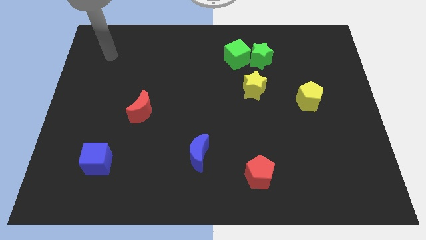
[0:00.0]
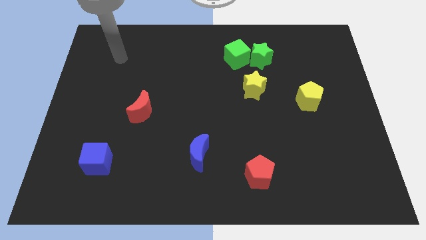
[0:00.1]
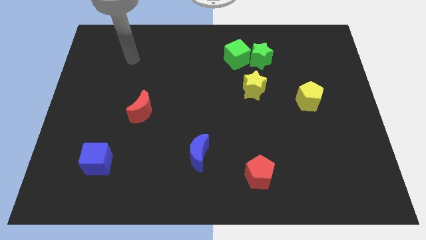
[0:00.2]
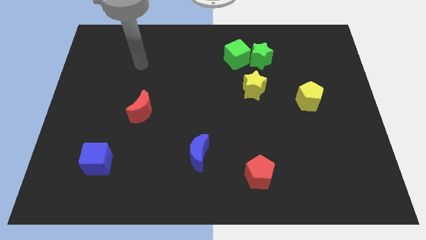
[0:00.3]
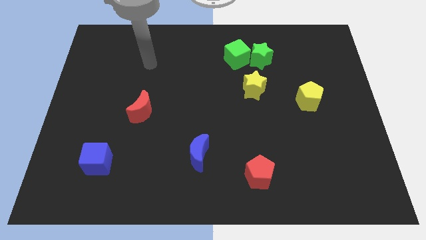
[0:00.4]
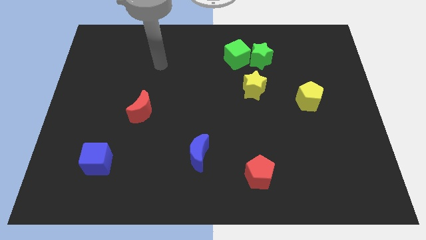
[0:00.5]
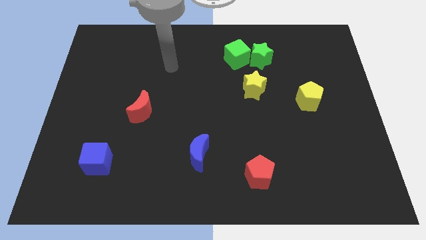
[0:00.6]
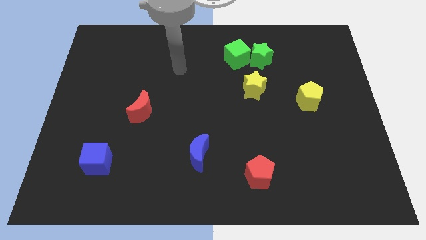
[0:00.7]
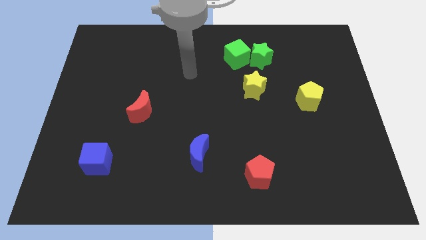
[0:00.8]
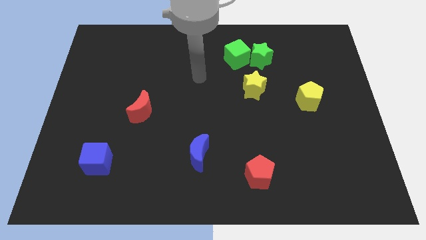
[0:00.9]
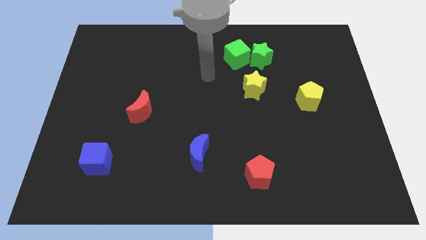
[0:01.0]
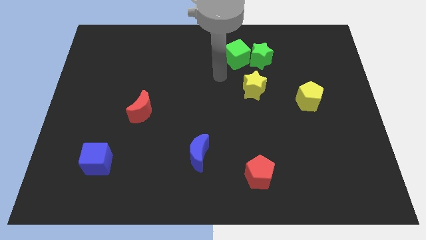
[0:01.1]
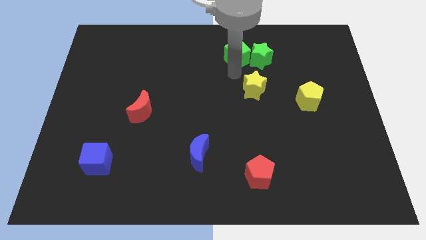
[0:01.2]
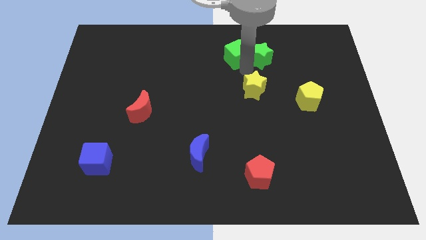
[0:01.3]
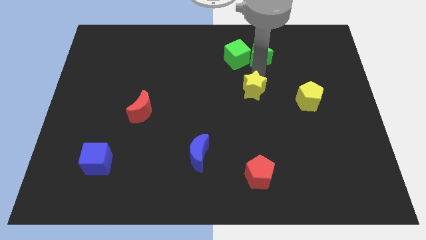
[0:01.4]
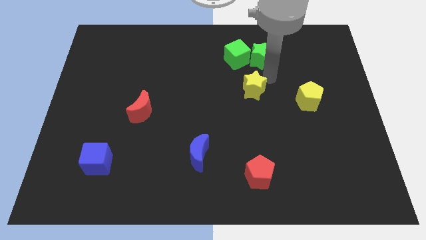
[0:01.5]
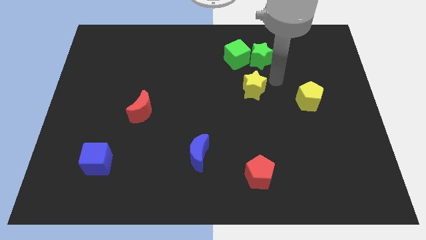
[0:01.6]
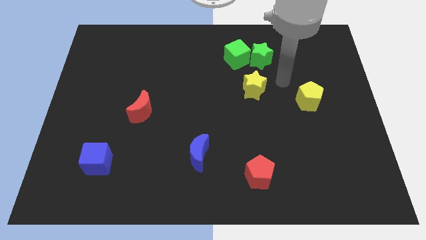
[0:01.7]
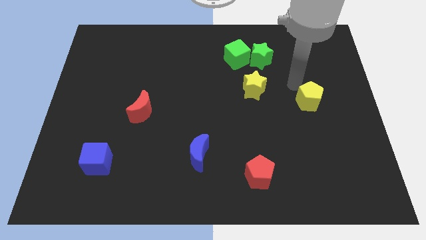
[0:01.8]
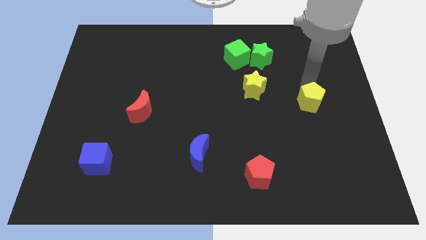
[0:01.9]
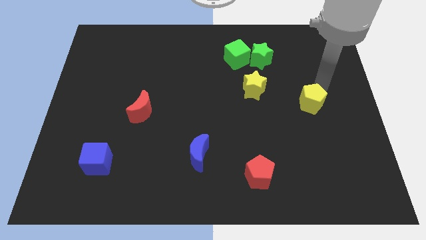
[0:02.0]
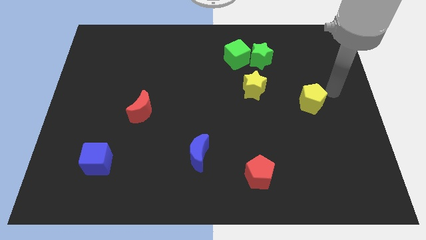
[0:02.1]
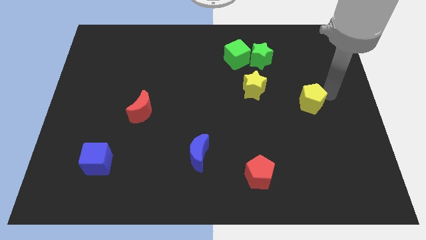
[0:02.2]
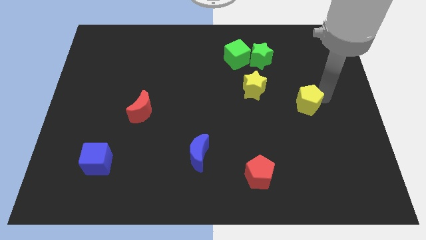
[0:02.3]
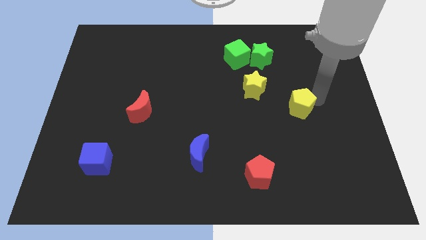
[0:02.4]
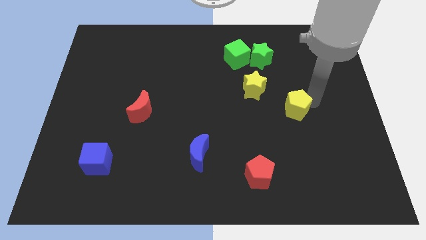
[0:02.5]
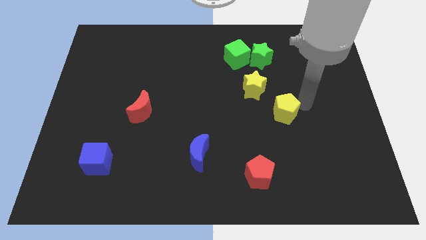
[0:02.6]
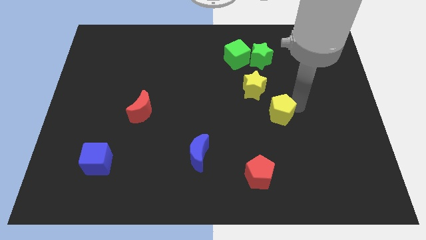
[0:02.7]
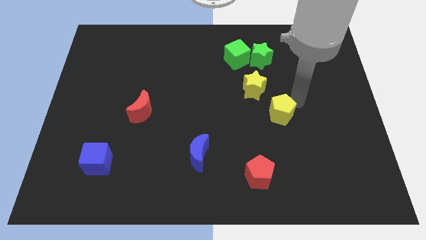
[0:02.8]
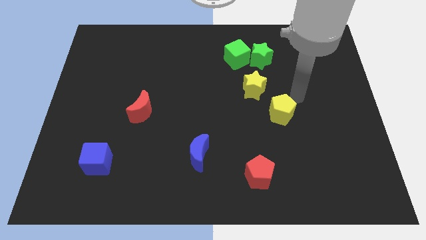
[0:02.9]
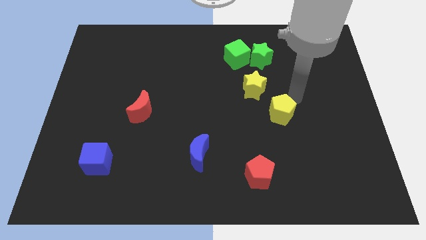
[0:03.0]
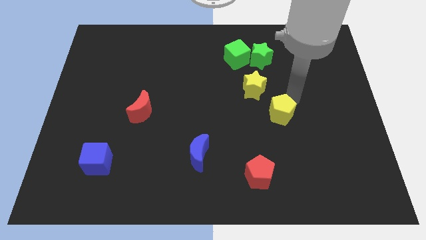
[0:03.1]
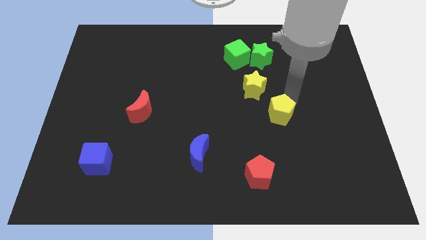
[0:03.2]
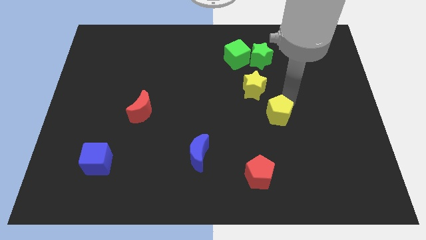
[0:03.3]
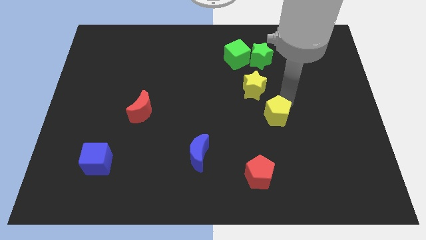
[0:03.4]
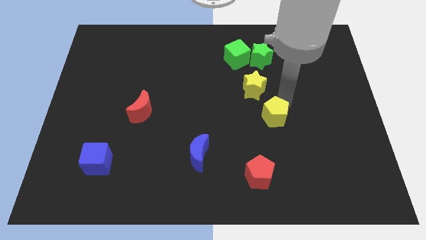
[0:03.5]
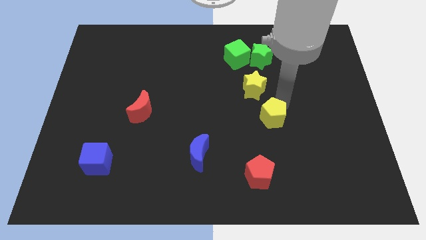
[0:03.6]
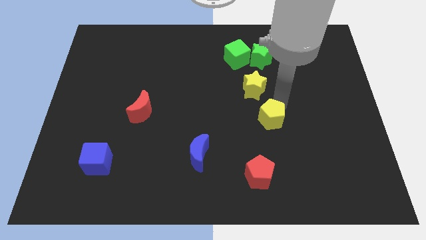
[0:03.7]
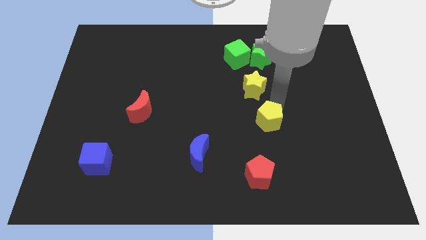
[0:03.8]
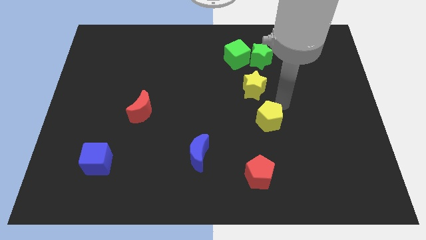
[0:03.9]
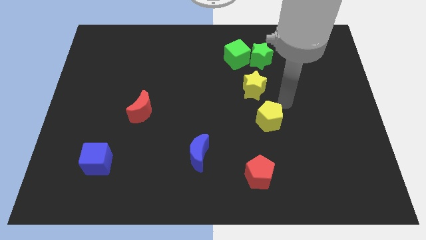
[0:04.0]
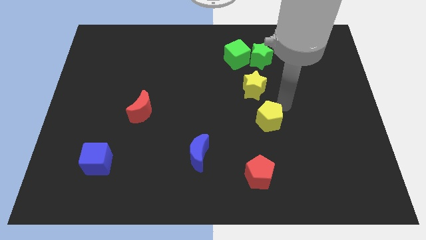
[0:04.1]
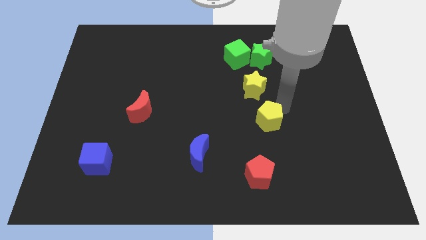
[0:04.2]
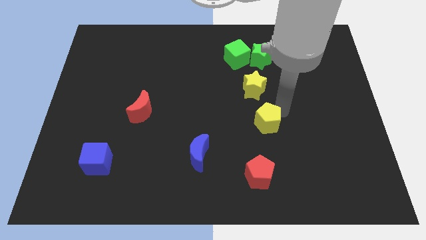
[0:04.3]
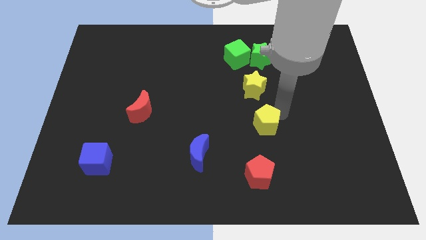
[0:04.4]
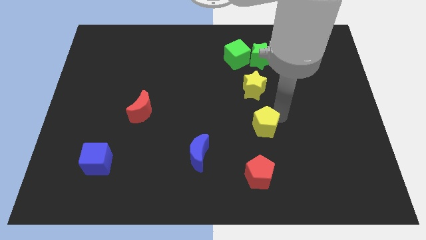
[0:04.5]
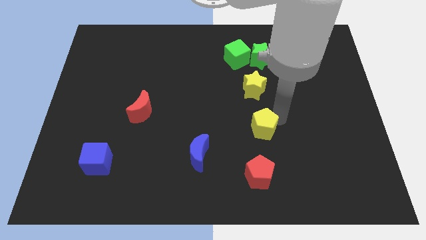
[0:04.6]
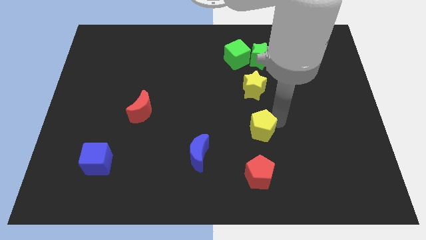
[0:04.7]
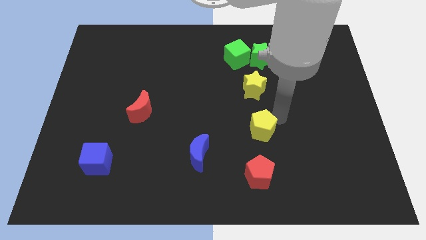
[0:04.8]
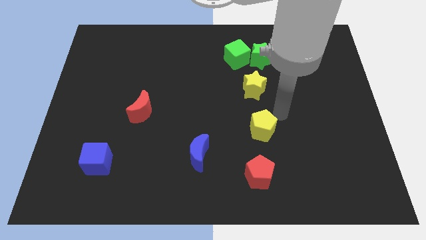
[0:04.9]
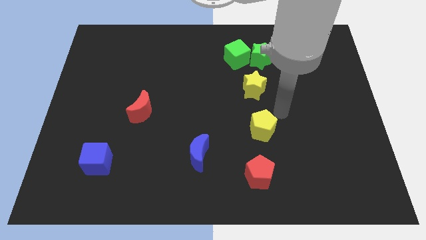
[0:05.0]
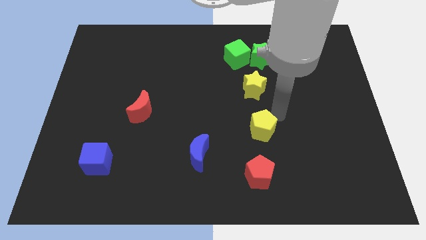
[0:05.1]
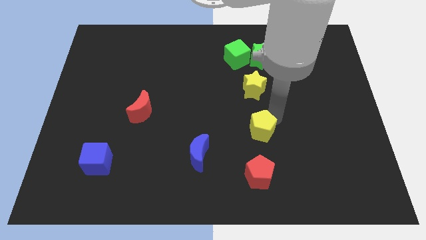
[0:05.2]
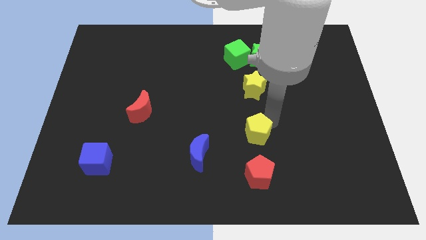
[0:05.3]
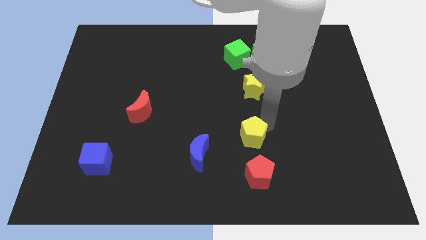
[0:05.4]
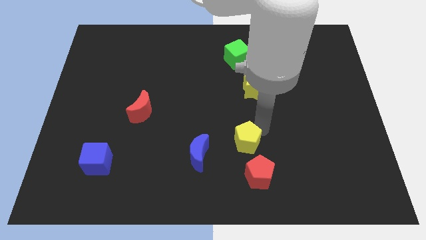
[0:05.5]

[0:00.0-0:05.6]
move the yellow pentagon diagonally up and to the left of the red pentagon

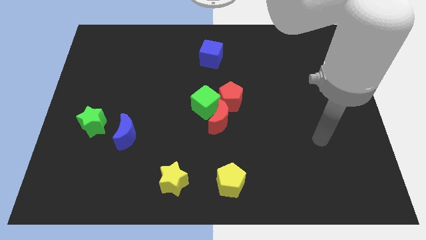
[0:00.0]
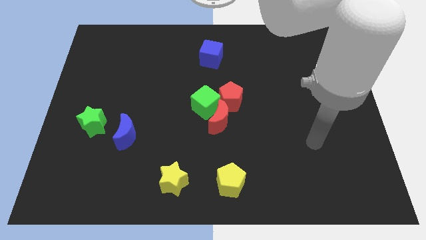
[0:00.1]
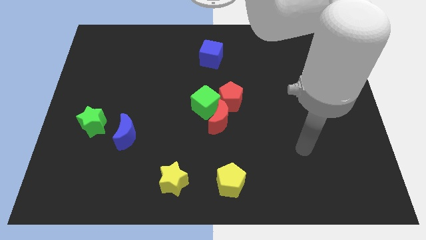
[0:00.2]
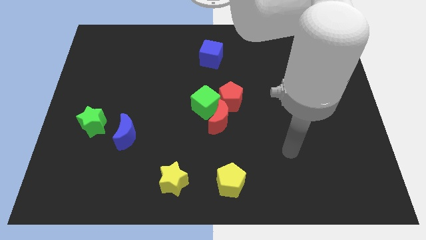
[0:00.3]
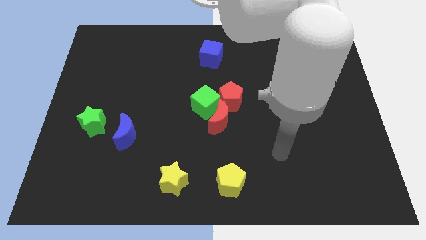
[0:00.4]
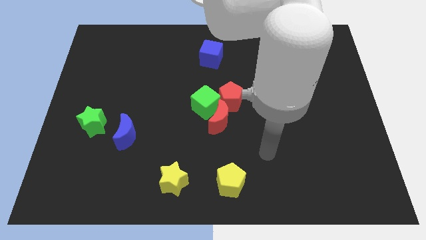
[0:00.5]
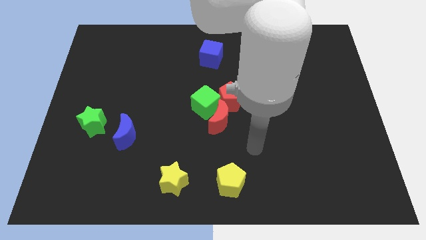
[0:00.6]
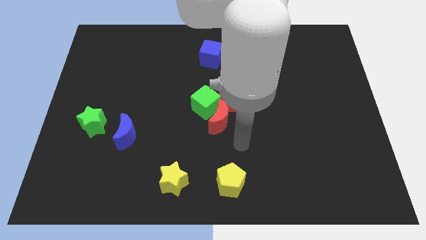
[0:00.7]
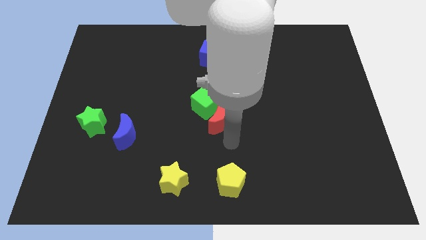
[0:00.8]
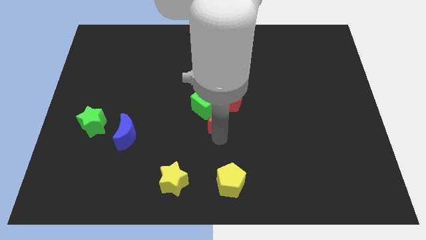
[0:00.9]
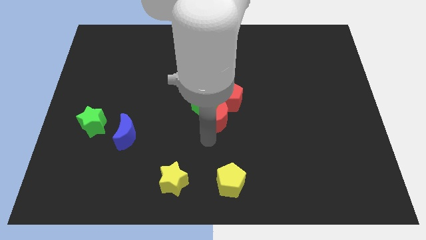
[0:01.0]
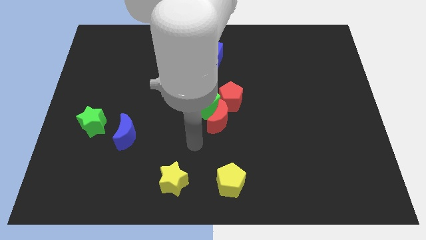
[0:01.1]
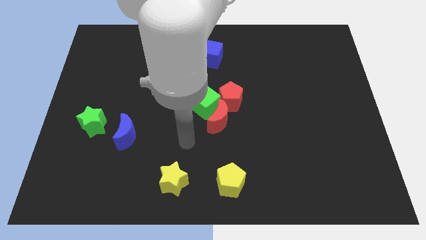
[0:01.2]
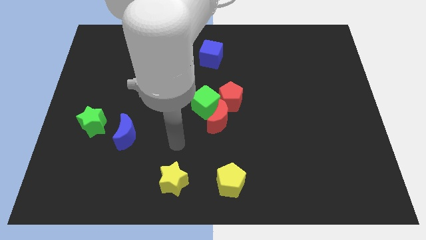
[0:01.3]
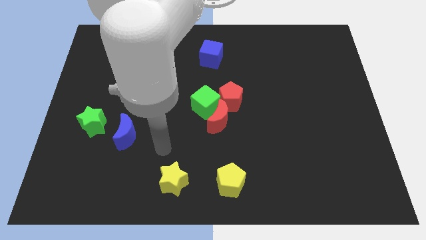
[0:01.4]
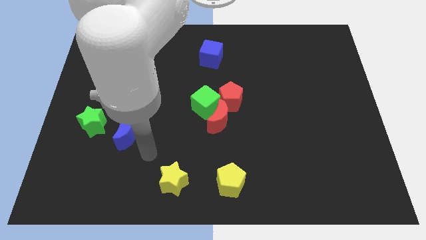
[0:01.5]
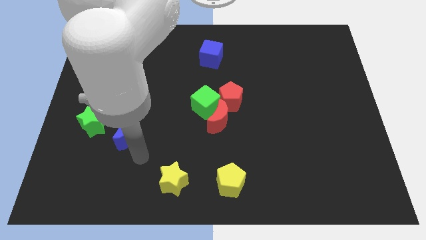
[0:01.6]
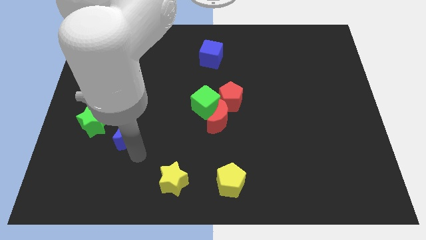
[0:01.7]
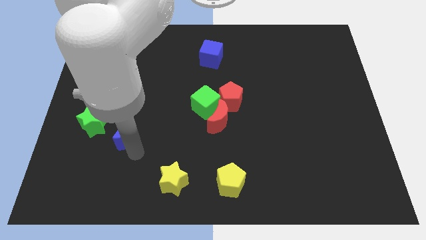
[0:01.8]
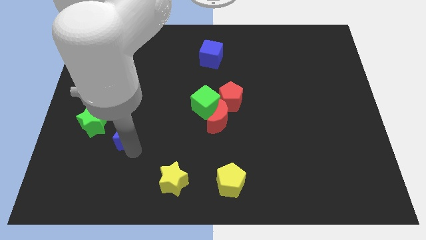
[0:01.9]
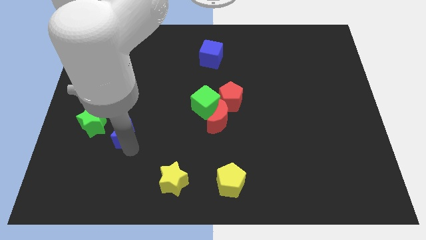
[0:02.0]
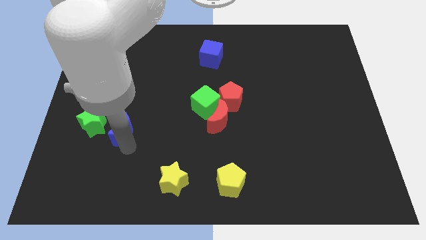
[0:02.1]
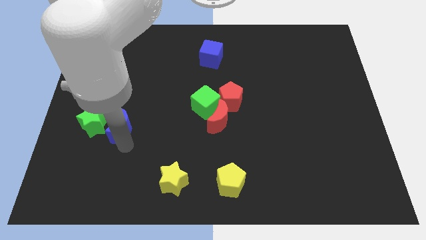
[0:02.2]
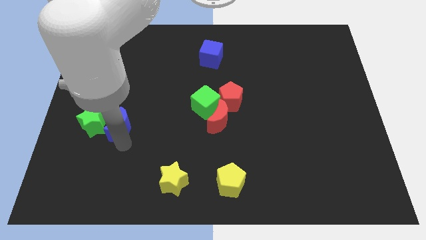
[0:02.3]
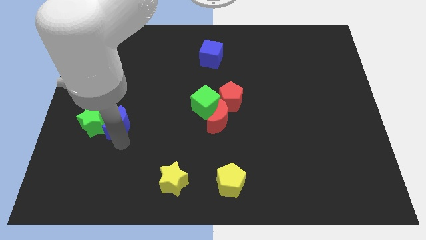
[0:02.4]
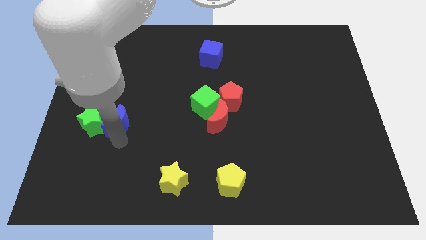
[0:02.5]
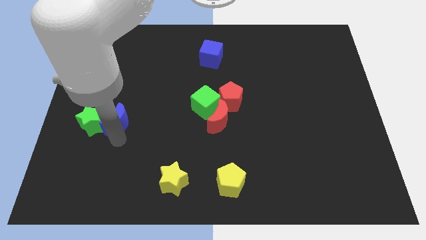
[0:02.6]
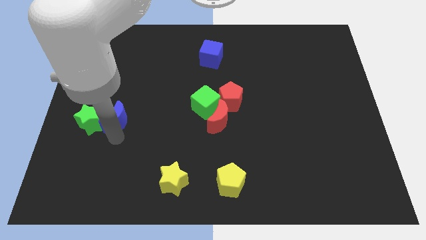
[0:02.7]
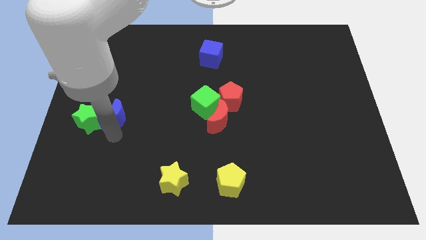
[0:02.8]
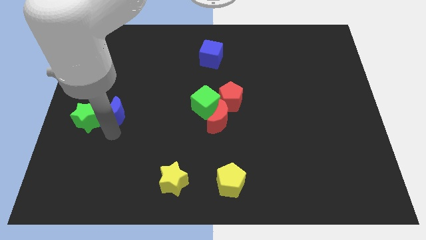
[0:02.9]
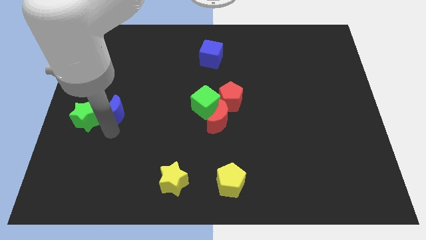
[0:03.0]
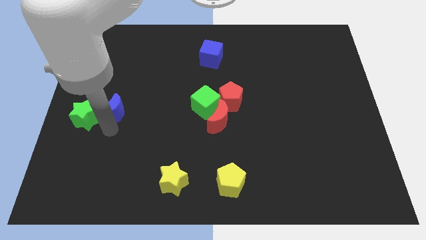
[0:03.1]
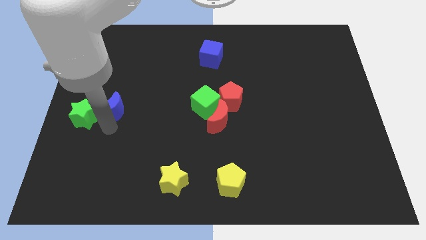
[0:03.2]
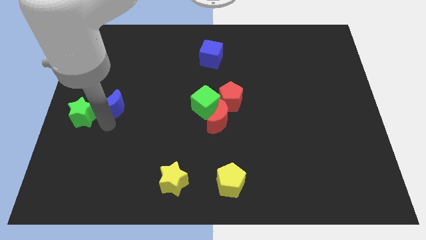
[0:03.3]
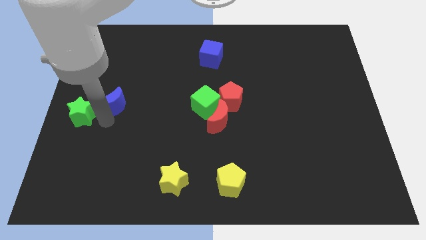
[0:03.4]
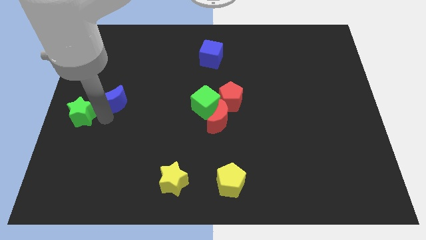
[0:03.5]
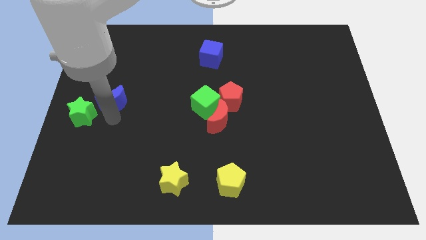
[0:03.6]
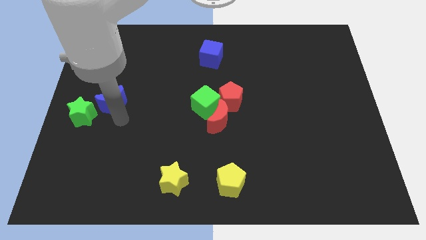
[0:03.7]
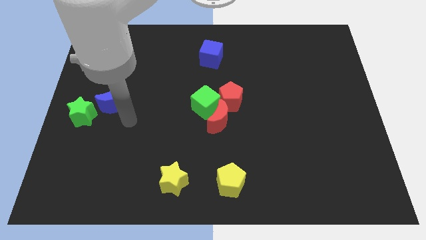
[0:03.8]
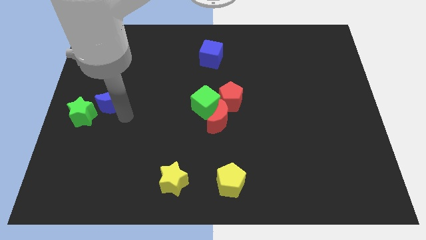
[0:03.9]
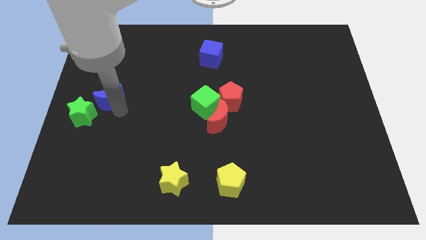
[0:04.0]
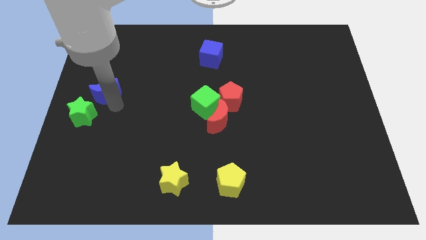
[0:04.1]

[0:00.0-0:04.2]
slide the blue moon above the green star
